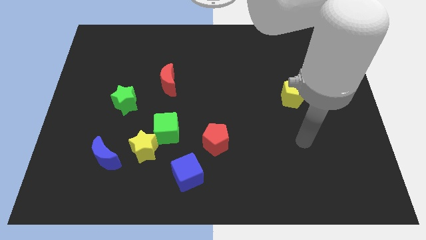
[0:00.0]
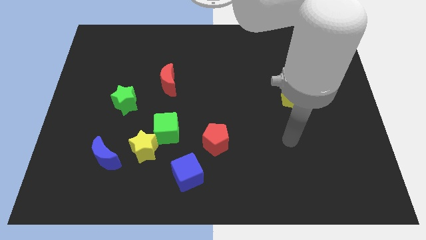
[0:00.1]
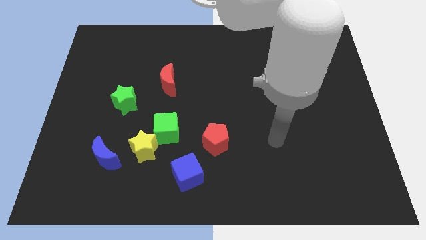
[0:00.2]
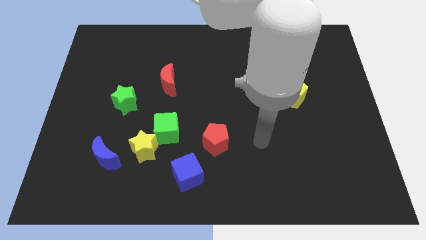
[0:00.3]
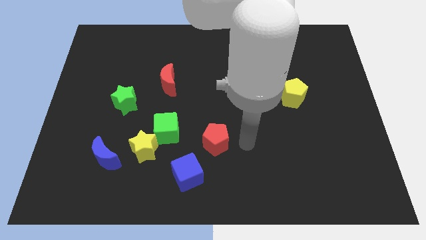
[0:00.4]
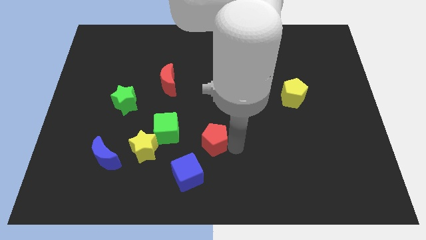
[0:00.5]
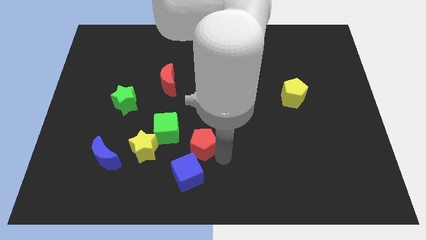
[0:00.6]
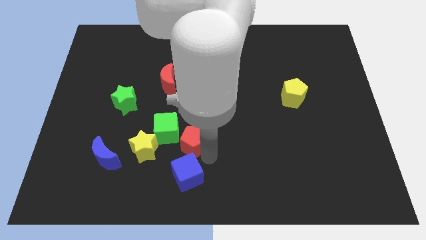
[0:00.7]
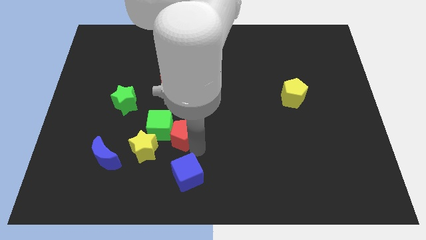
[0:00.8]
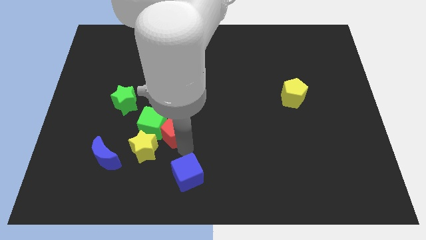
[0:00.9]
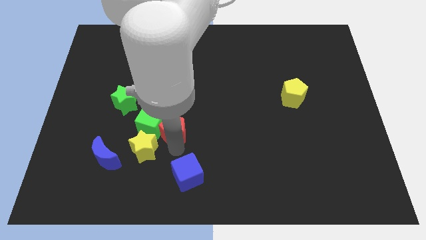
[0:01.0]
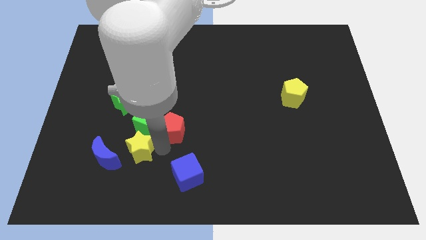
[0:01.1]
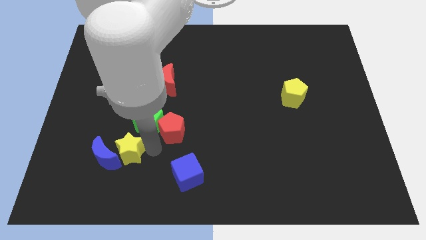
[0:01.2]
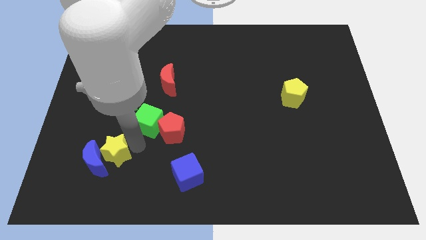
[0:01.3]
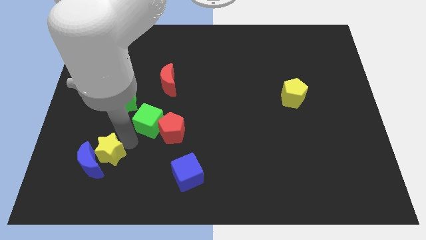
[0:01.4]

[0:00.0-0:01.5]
move the green cube away from the yellow star

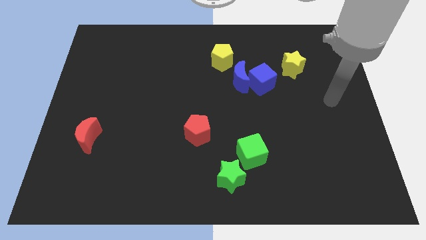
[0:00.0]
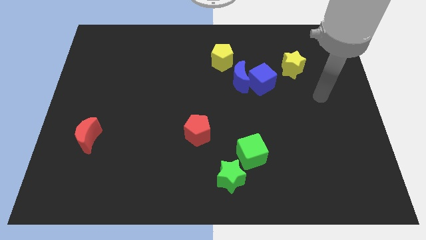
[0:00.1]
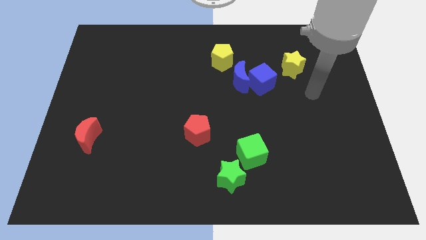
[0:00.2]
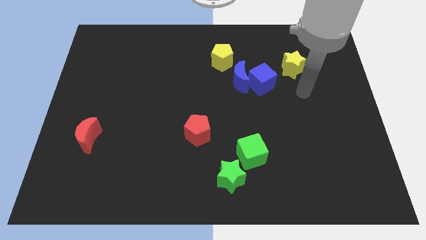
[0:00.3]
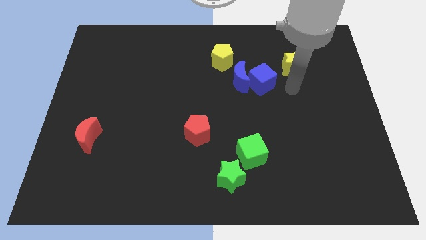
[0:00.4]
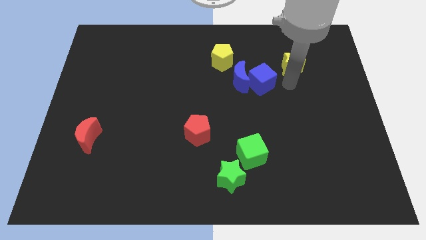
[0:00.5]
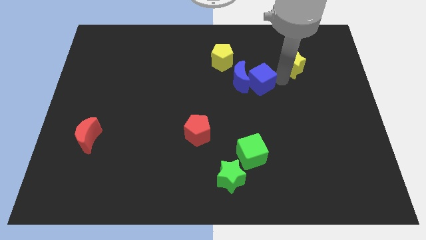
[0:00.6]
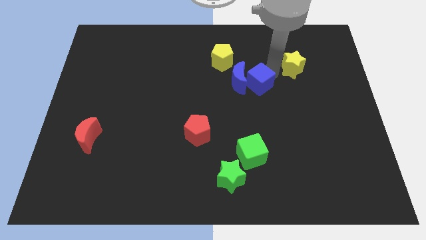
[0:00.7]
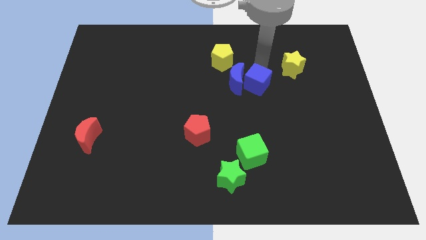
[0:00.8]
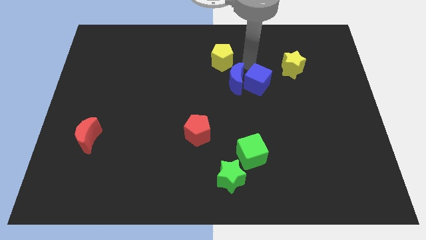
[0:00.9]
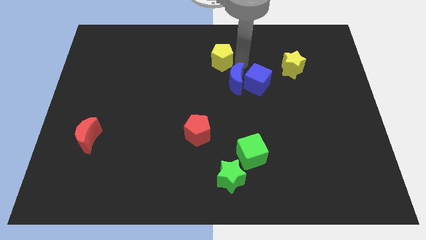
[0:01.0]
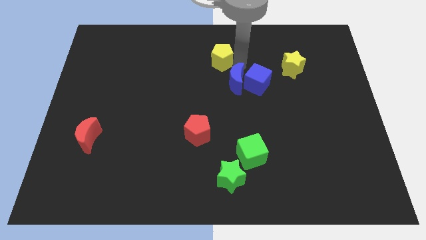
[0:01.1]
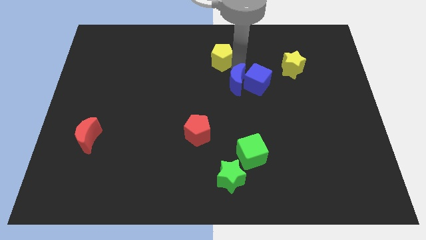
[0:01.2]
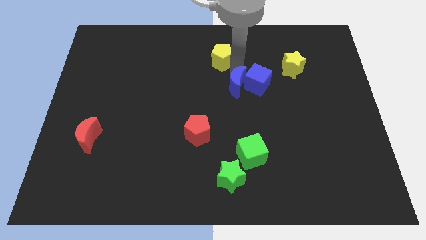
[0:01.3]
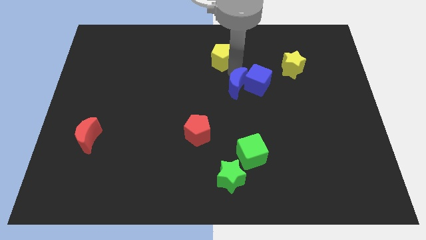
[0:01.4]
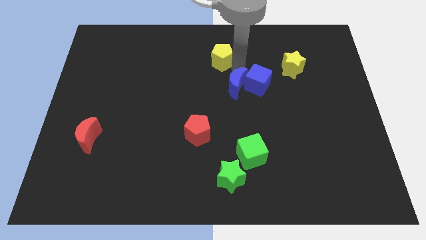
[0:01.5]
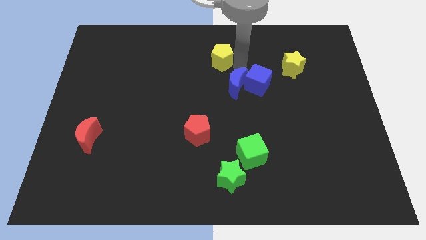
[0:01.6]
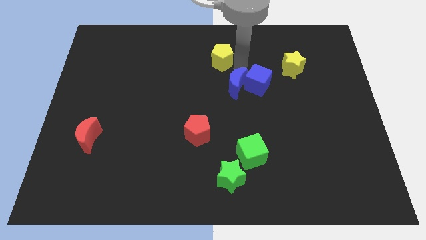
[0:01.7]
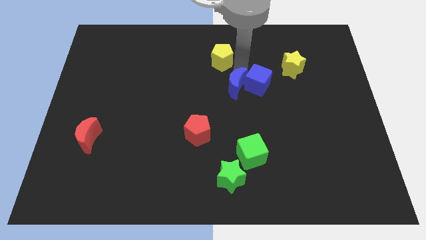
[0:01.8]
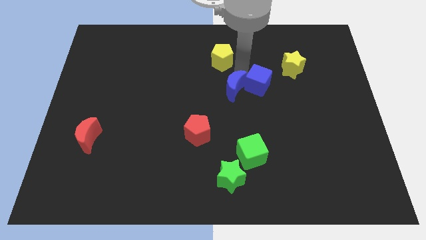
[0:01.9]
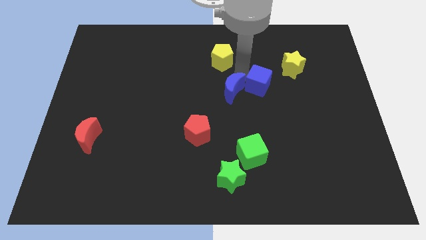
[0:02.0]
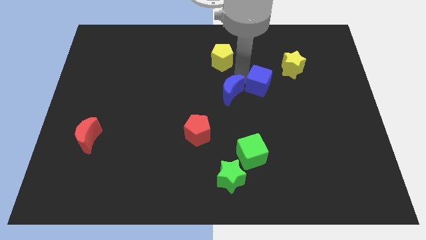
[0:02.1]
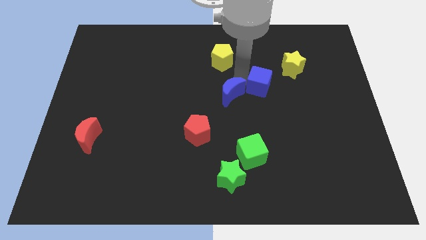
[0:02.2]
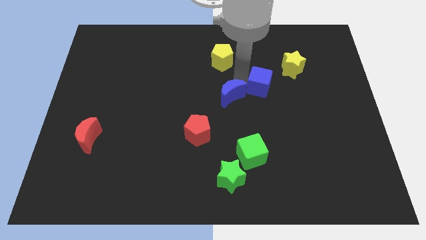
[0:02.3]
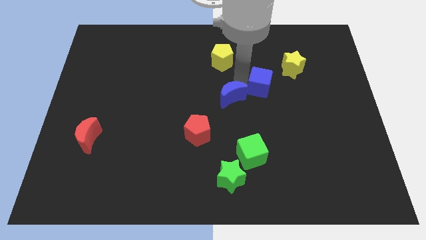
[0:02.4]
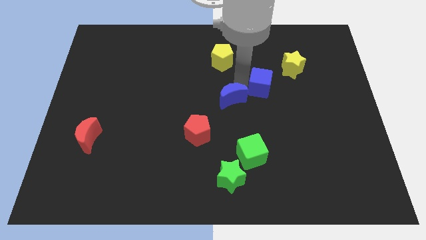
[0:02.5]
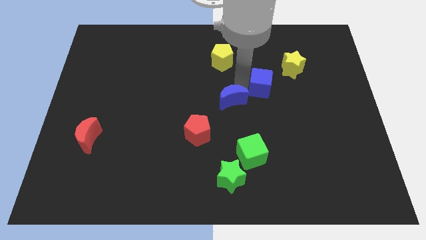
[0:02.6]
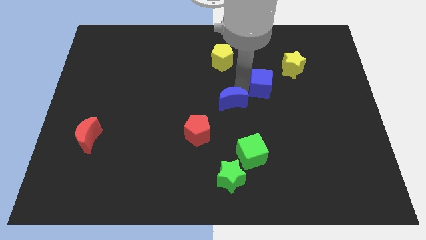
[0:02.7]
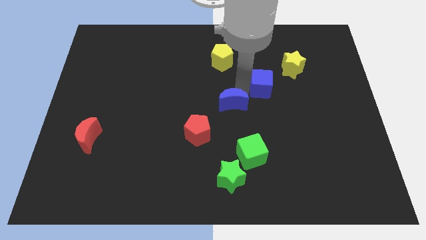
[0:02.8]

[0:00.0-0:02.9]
move the blue moon away from the blue cube and yellow pentagon

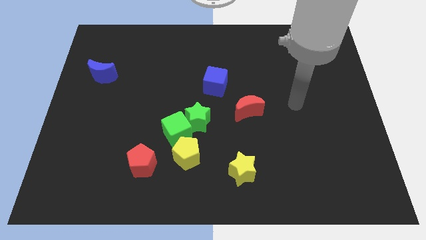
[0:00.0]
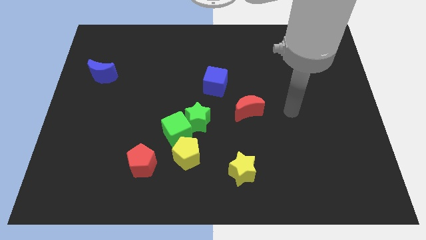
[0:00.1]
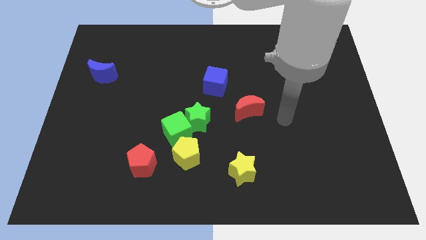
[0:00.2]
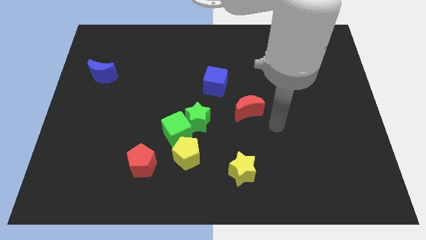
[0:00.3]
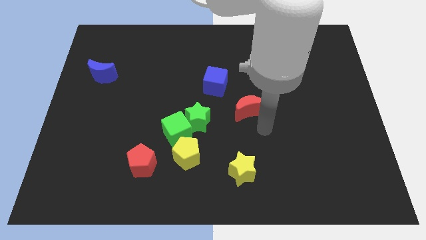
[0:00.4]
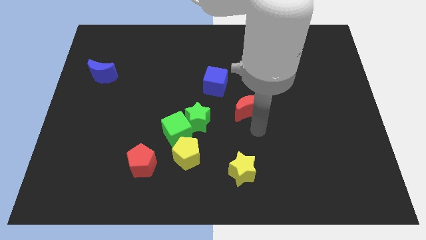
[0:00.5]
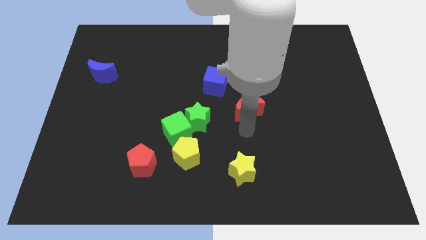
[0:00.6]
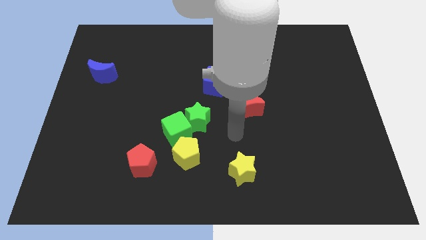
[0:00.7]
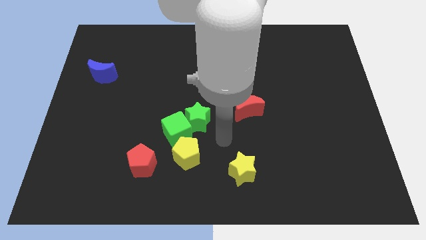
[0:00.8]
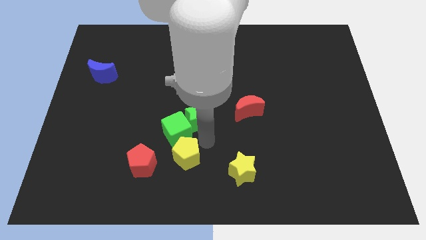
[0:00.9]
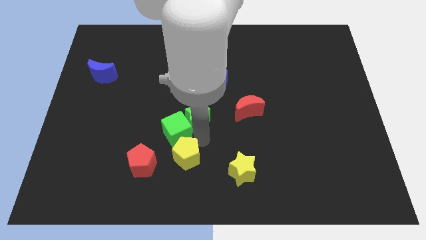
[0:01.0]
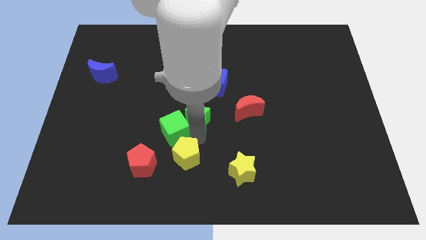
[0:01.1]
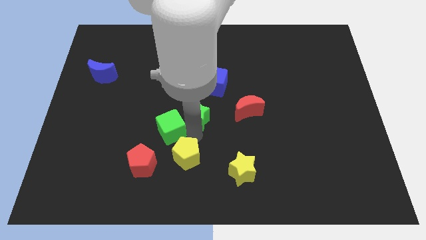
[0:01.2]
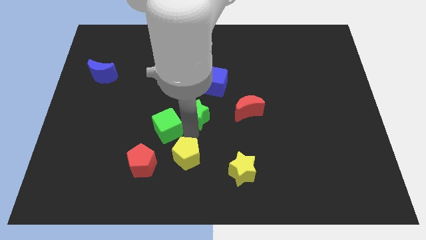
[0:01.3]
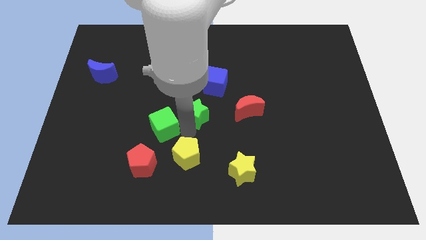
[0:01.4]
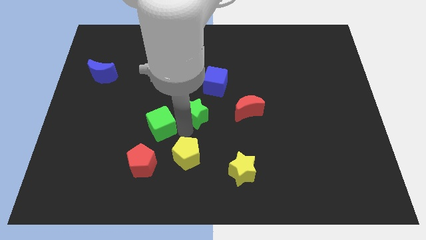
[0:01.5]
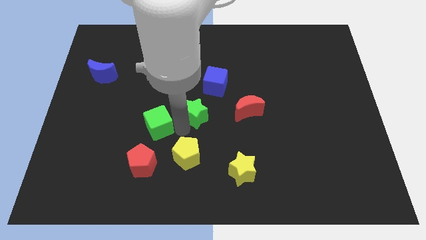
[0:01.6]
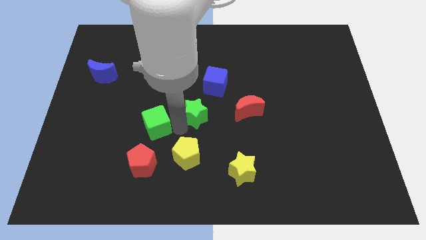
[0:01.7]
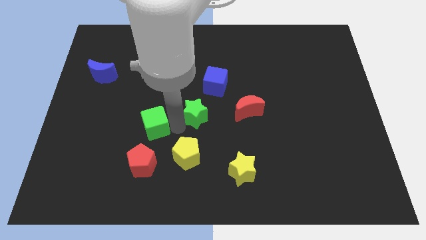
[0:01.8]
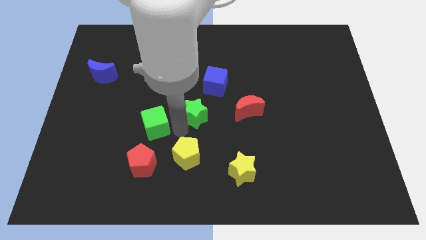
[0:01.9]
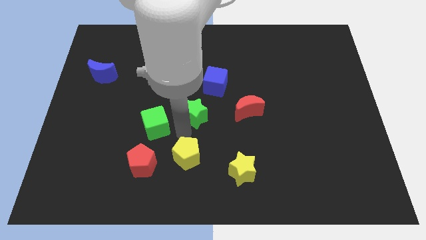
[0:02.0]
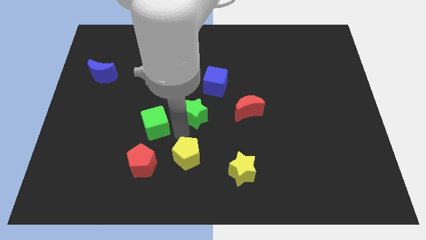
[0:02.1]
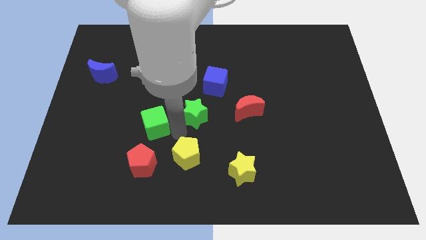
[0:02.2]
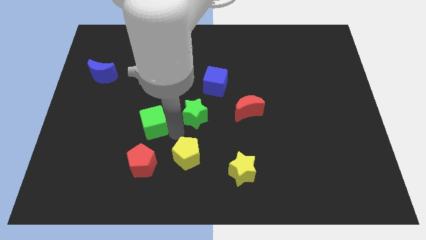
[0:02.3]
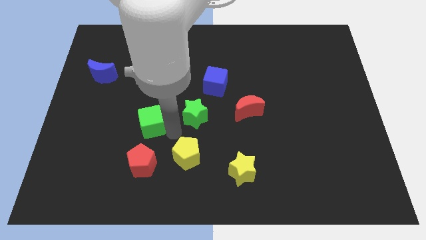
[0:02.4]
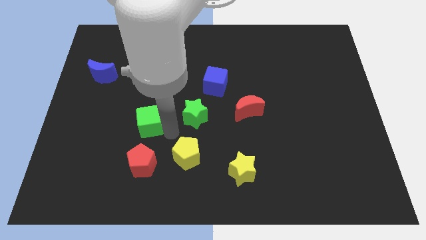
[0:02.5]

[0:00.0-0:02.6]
pull the green cube apart from the green star and yellow pentagon

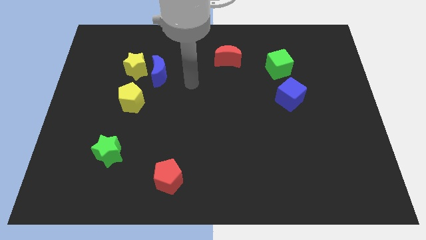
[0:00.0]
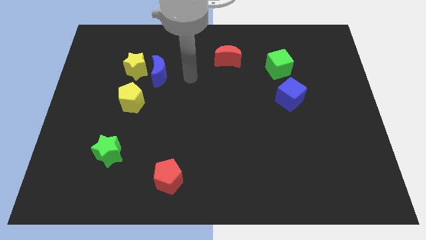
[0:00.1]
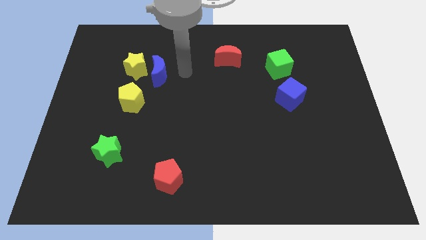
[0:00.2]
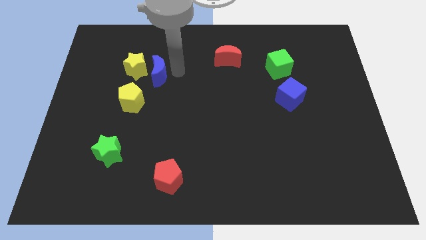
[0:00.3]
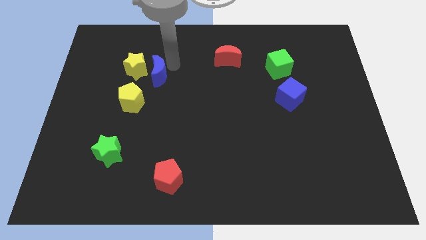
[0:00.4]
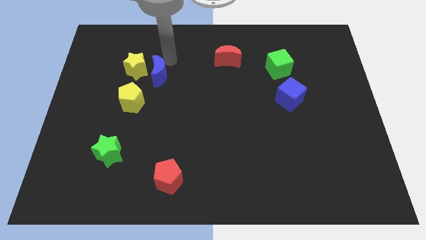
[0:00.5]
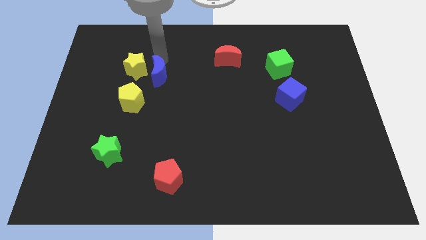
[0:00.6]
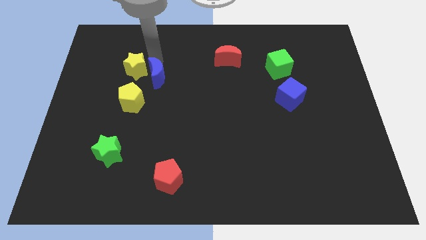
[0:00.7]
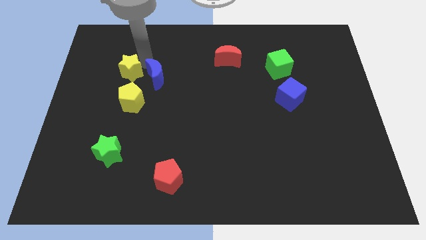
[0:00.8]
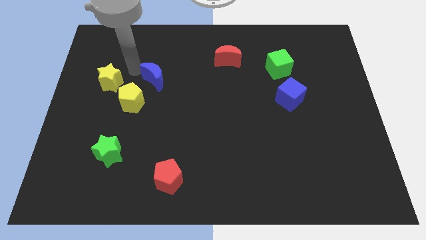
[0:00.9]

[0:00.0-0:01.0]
pull the blue moon apart from the yellow star

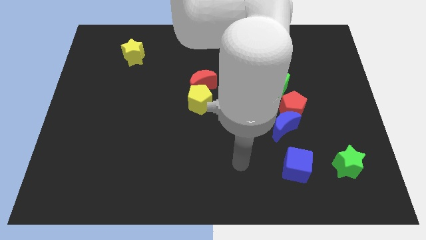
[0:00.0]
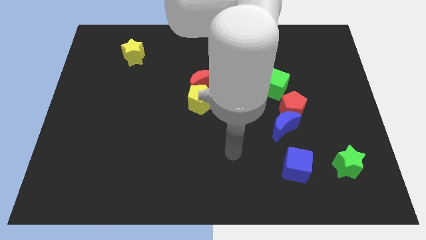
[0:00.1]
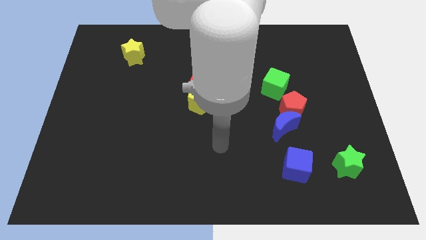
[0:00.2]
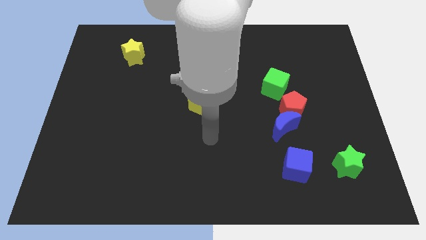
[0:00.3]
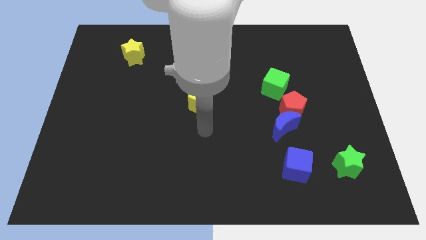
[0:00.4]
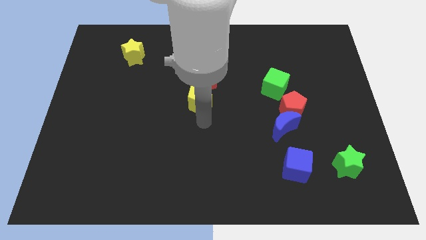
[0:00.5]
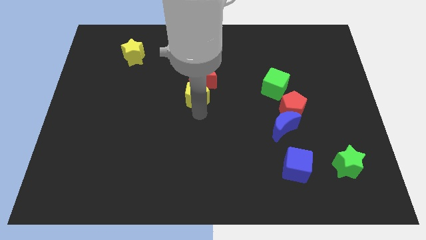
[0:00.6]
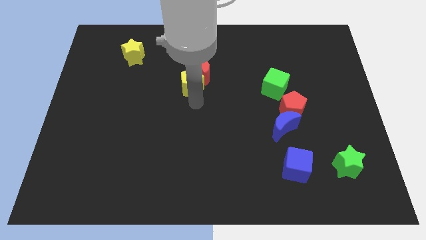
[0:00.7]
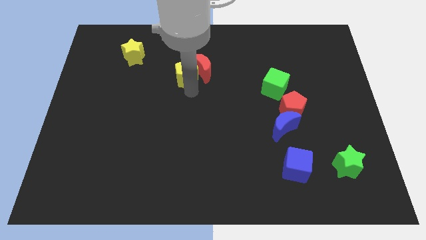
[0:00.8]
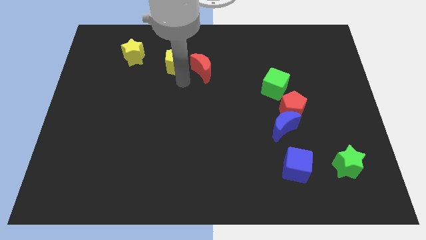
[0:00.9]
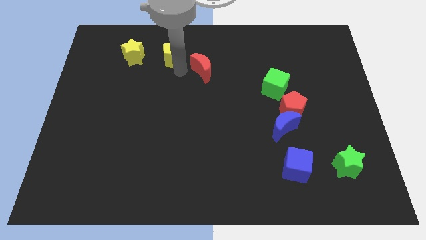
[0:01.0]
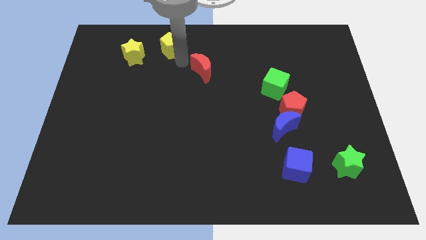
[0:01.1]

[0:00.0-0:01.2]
separate the red moon from the yellow pentagon
